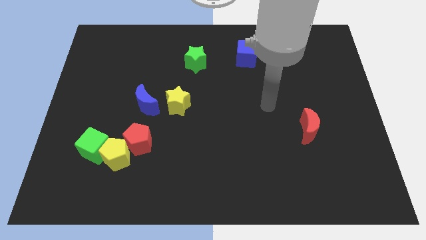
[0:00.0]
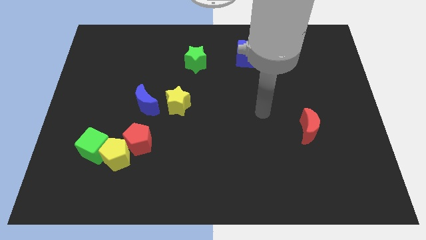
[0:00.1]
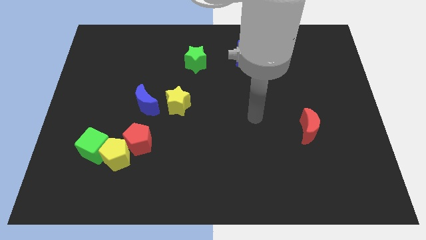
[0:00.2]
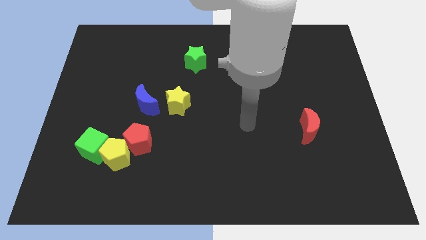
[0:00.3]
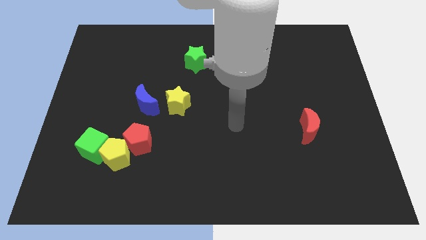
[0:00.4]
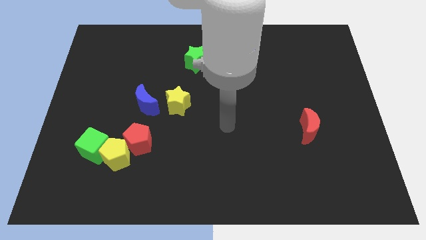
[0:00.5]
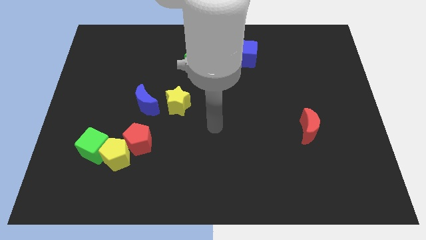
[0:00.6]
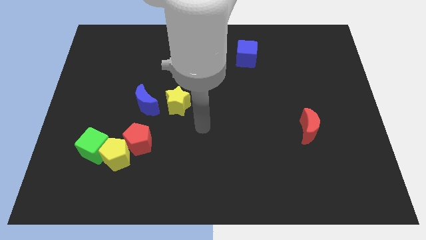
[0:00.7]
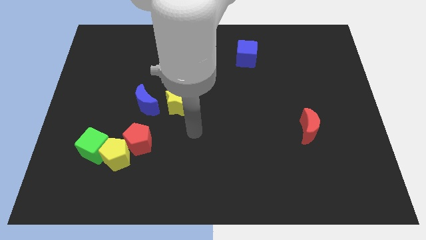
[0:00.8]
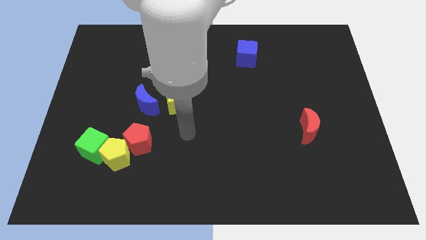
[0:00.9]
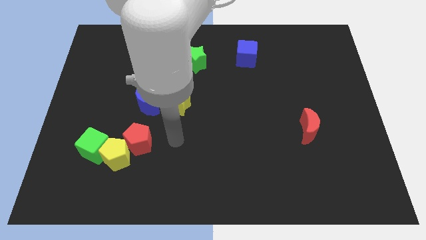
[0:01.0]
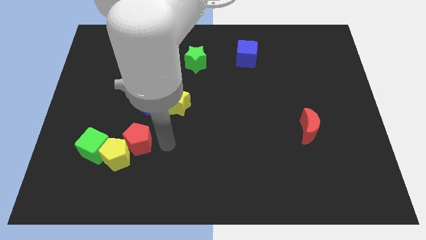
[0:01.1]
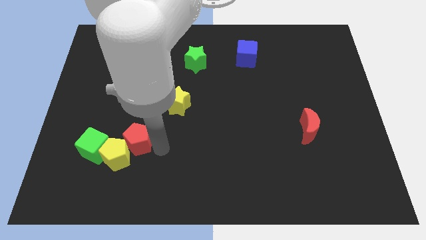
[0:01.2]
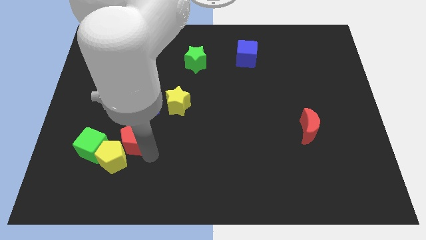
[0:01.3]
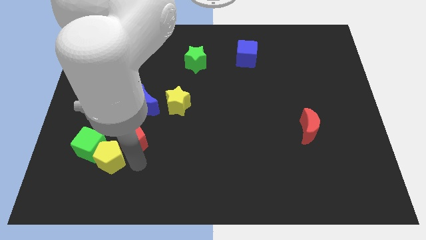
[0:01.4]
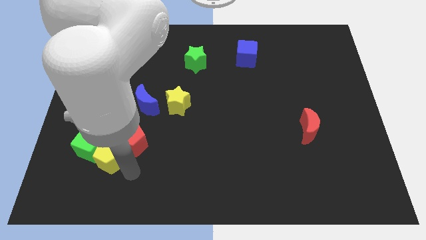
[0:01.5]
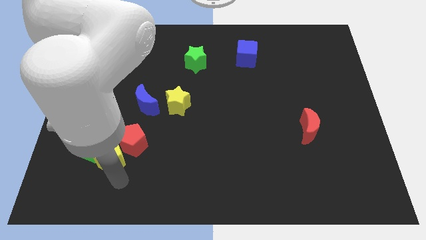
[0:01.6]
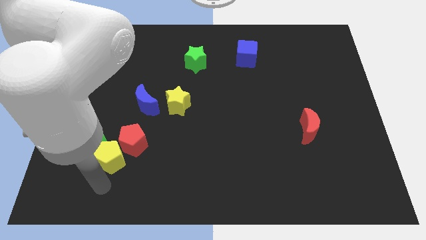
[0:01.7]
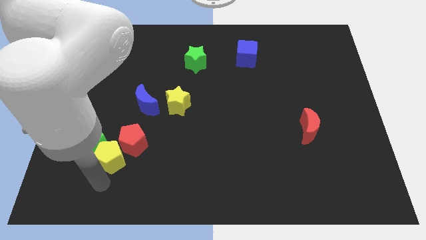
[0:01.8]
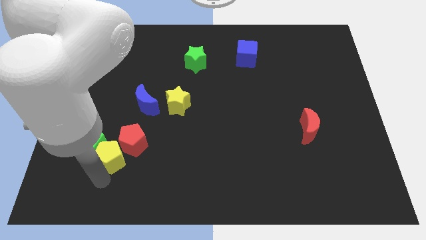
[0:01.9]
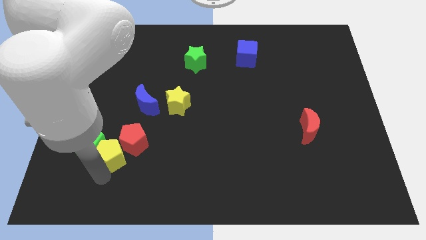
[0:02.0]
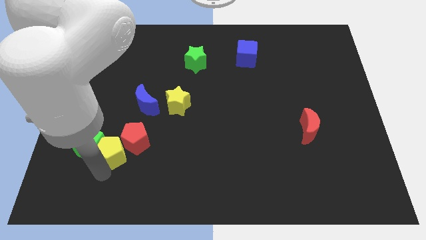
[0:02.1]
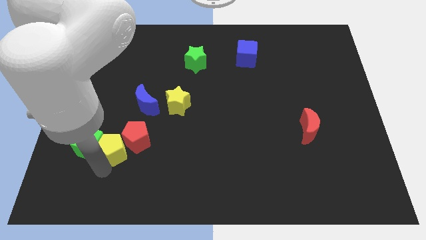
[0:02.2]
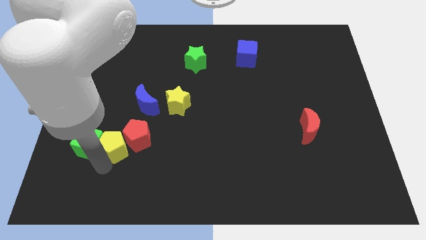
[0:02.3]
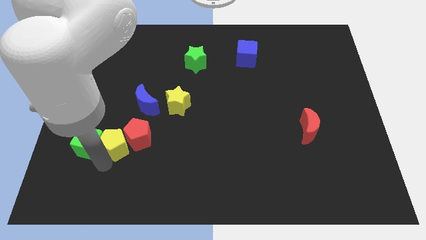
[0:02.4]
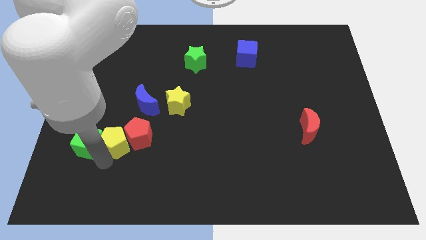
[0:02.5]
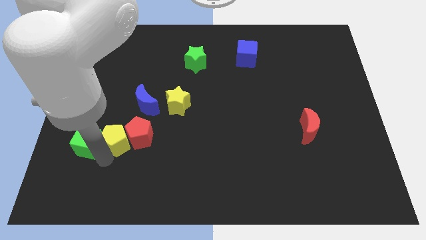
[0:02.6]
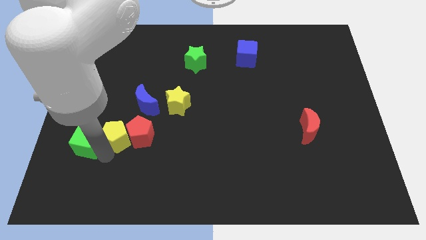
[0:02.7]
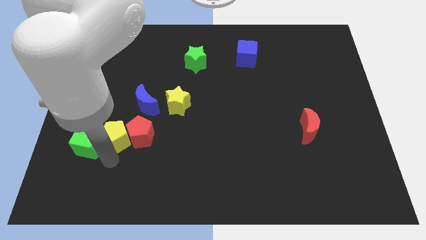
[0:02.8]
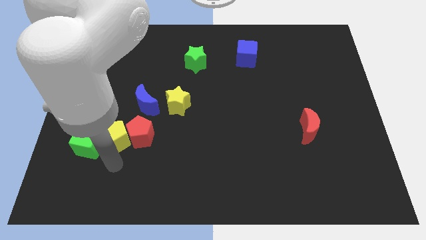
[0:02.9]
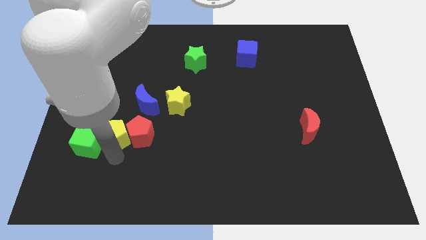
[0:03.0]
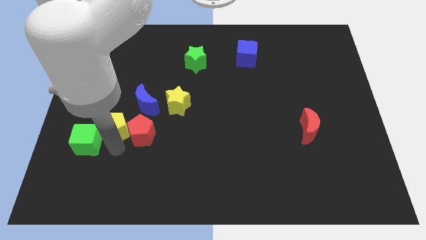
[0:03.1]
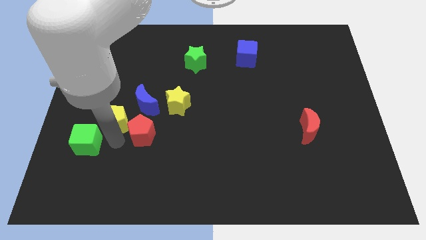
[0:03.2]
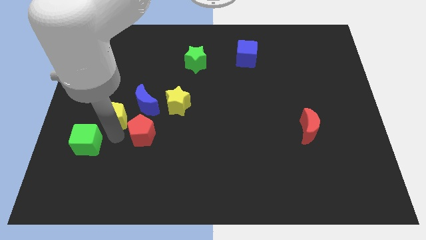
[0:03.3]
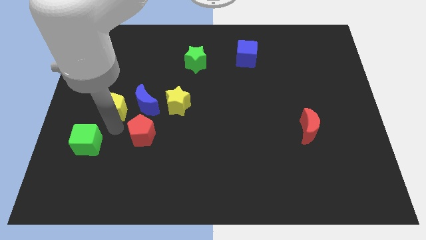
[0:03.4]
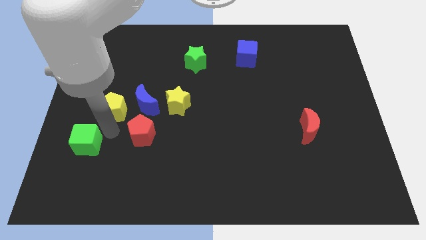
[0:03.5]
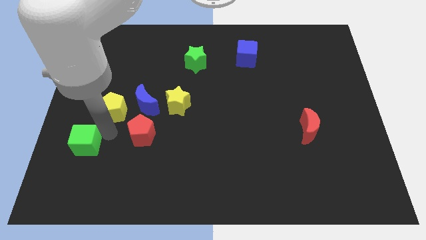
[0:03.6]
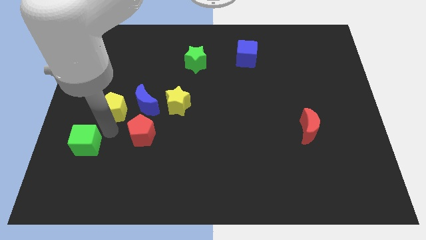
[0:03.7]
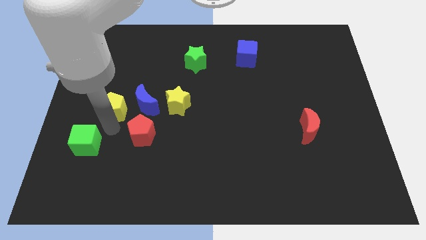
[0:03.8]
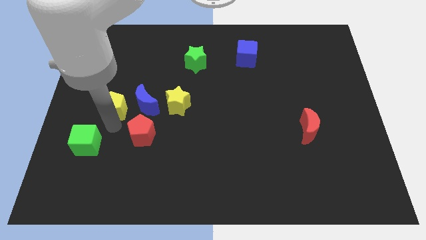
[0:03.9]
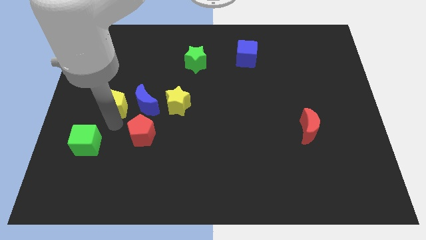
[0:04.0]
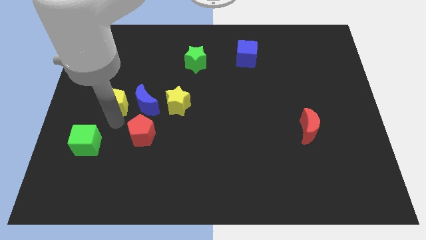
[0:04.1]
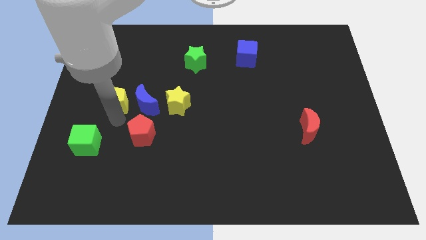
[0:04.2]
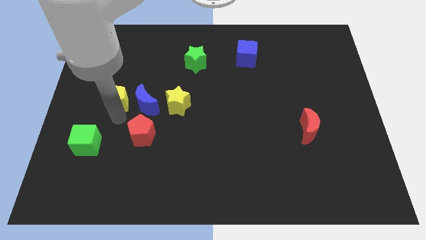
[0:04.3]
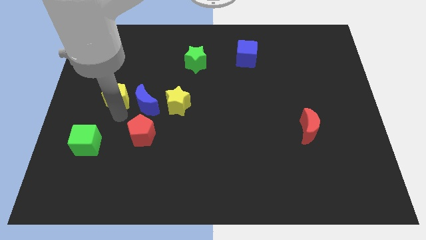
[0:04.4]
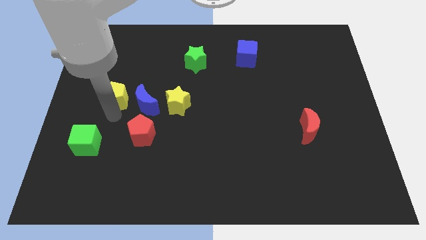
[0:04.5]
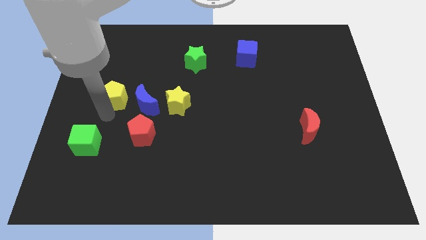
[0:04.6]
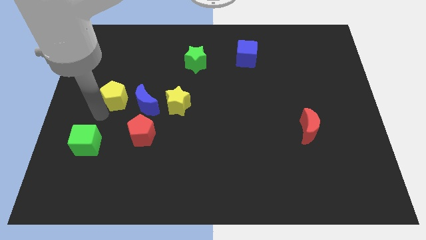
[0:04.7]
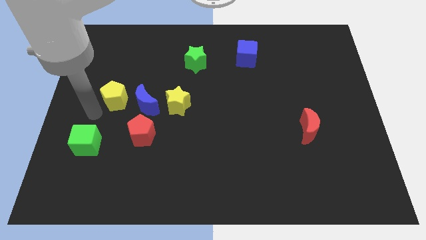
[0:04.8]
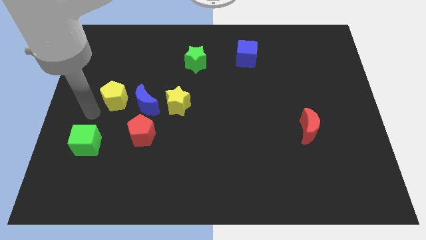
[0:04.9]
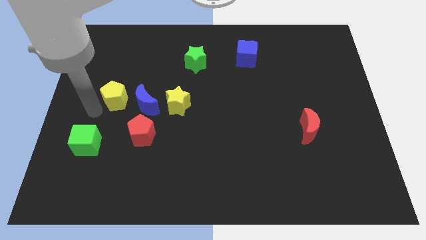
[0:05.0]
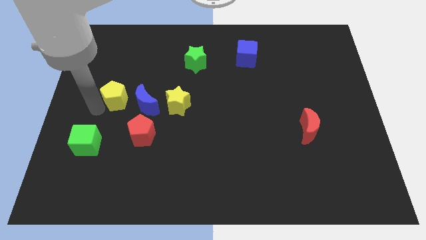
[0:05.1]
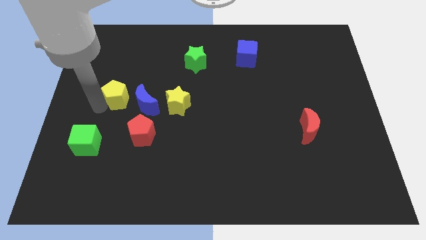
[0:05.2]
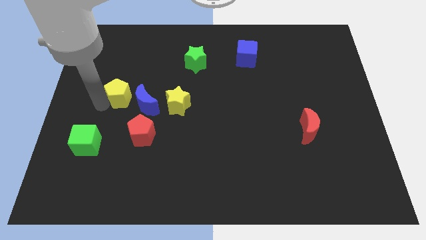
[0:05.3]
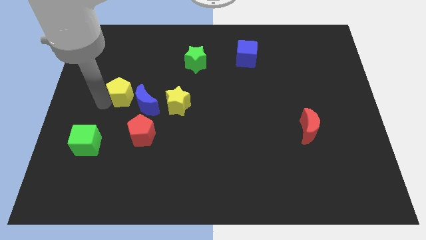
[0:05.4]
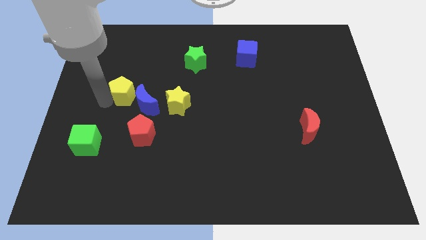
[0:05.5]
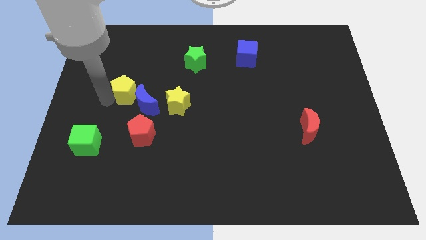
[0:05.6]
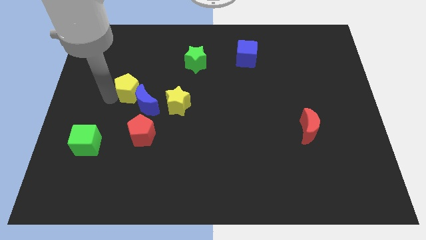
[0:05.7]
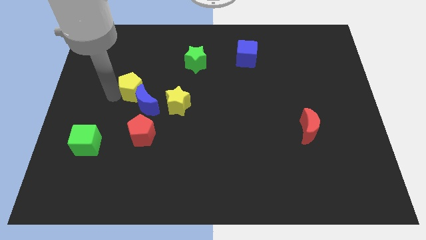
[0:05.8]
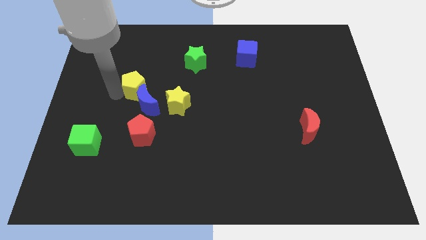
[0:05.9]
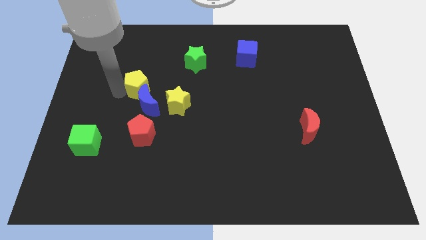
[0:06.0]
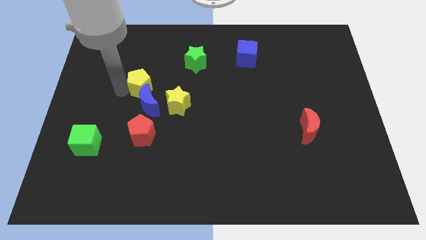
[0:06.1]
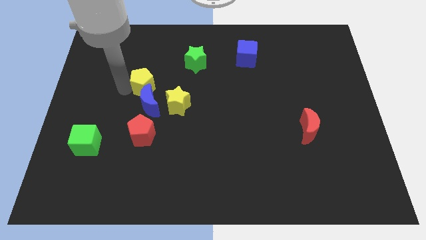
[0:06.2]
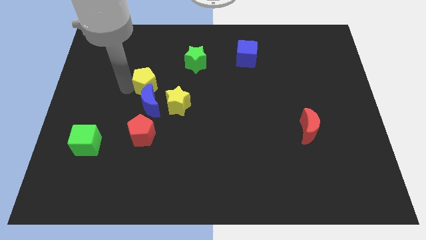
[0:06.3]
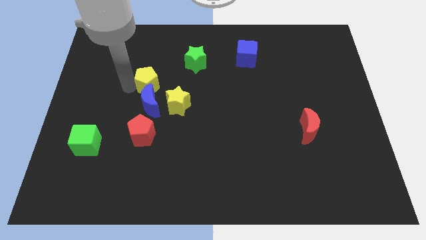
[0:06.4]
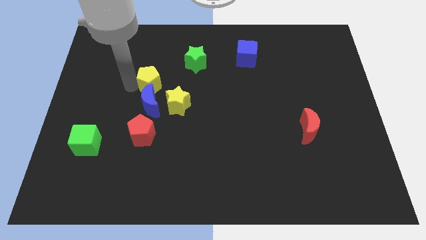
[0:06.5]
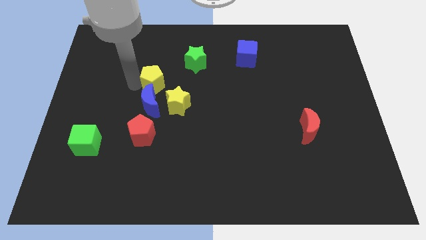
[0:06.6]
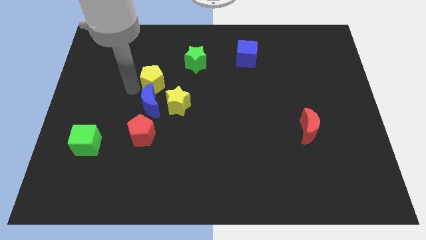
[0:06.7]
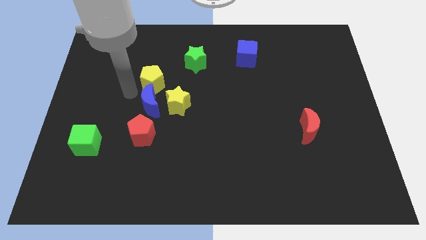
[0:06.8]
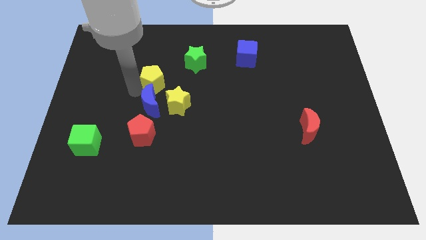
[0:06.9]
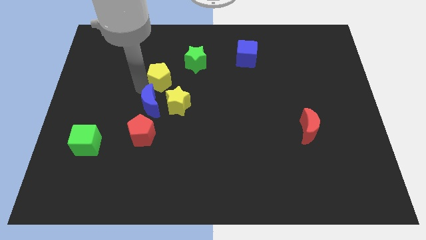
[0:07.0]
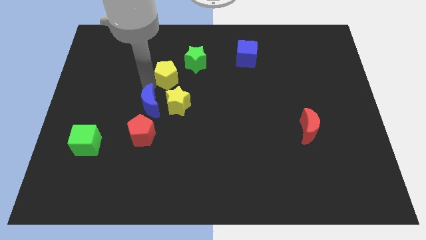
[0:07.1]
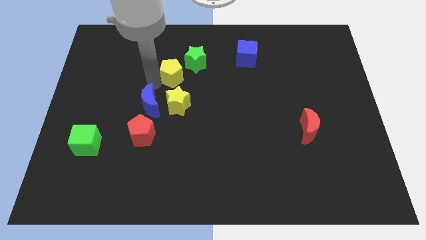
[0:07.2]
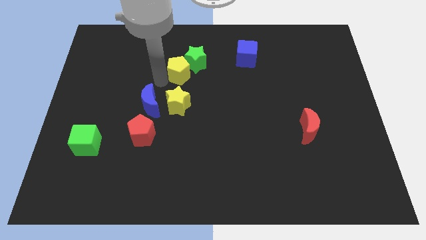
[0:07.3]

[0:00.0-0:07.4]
push the yellow pentagon close to the green star

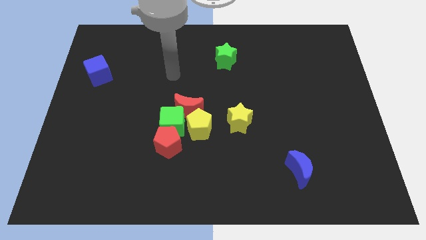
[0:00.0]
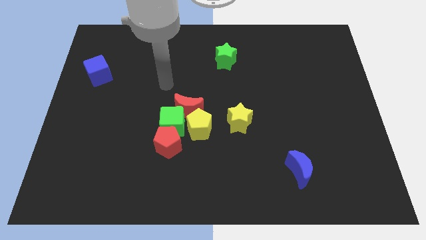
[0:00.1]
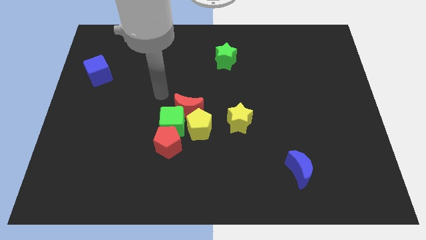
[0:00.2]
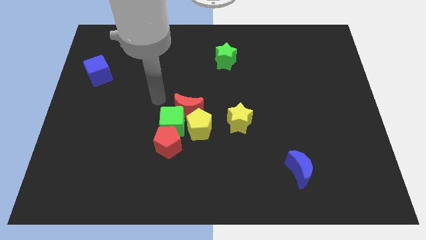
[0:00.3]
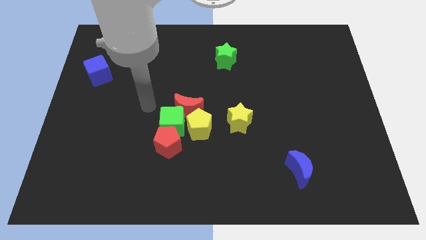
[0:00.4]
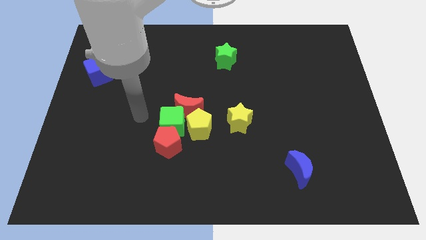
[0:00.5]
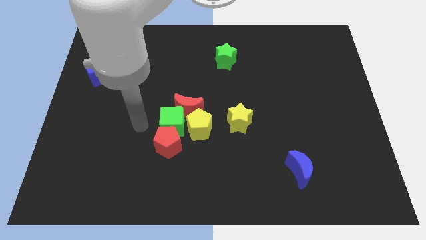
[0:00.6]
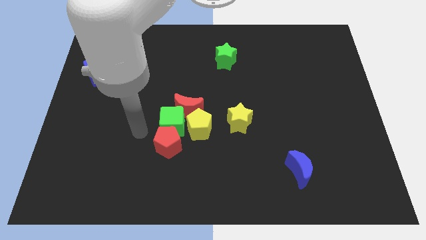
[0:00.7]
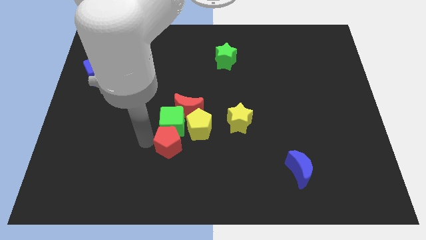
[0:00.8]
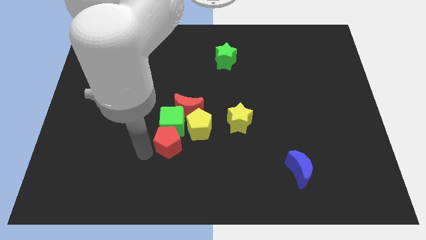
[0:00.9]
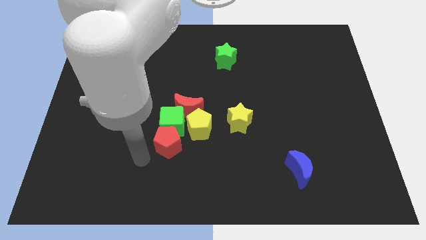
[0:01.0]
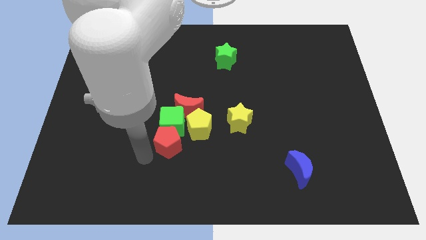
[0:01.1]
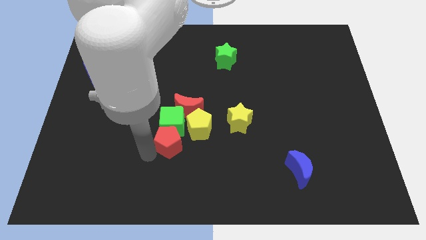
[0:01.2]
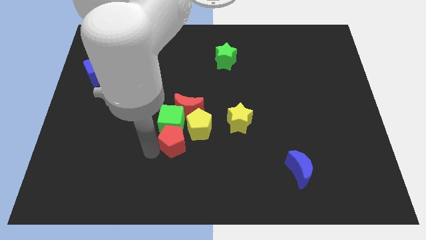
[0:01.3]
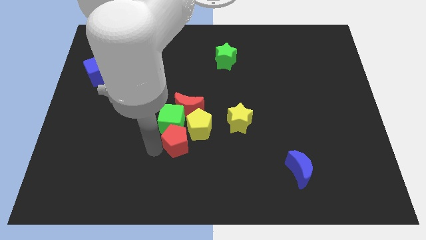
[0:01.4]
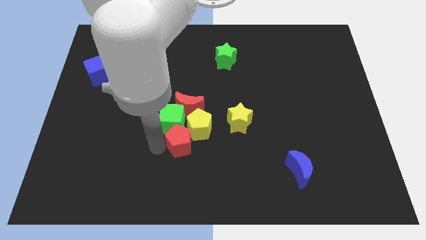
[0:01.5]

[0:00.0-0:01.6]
move the red pentagon towards the yellow pentagon
